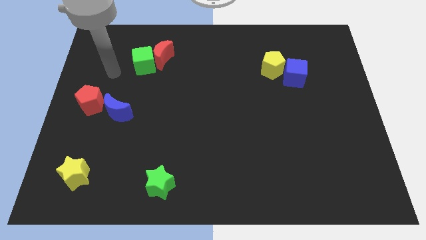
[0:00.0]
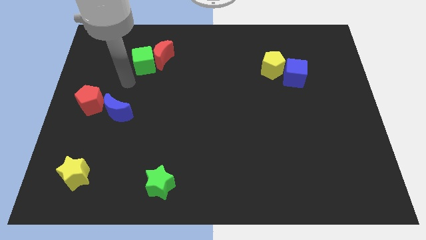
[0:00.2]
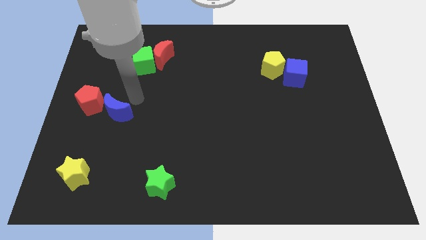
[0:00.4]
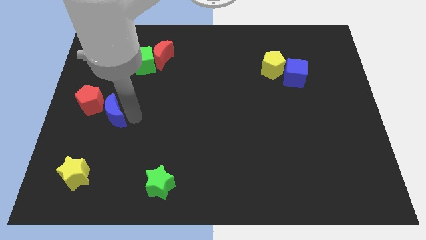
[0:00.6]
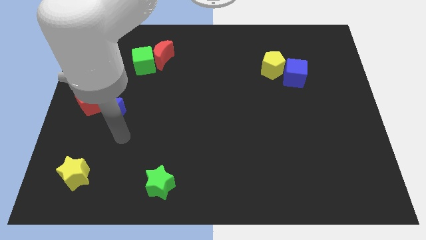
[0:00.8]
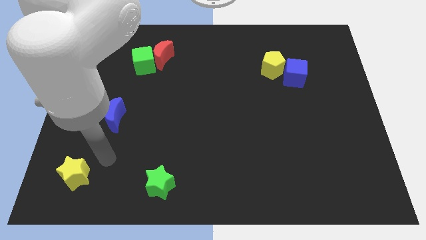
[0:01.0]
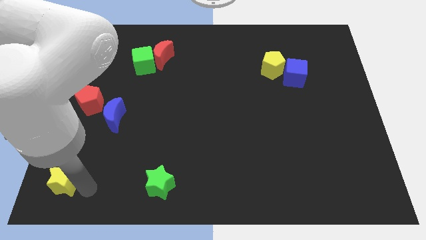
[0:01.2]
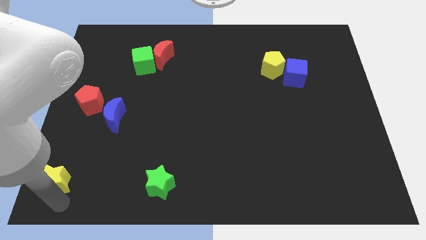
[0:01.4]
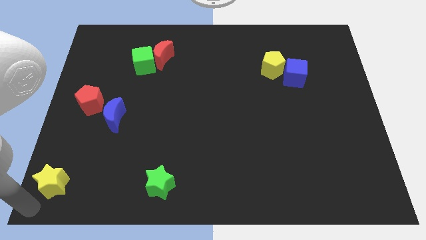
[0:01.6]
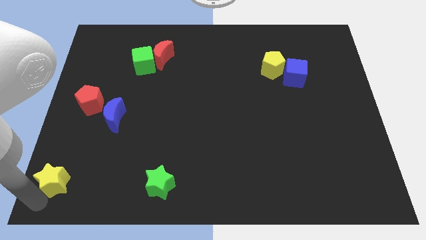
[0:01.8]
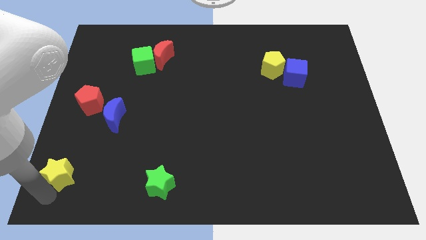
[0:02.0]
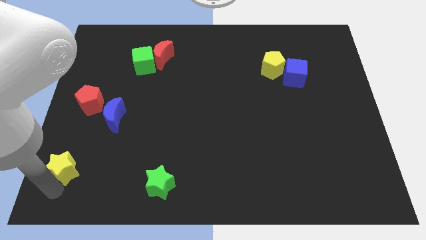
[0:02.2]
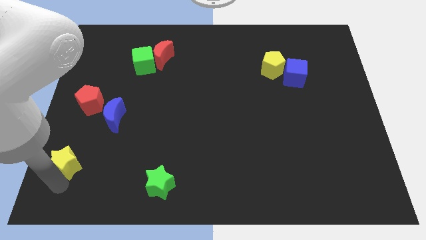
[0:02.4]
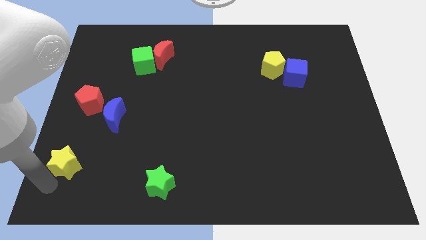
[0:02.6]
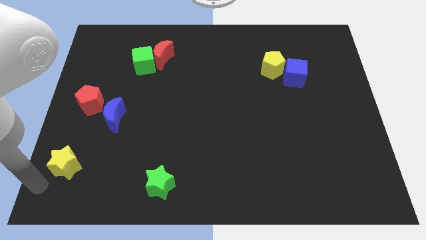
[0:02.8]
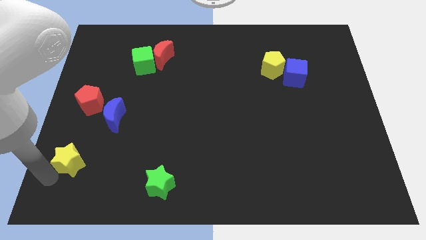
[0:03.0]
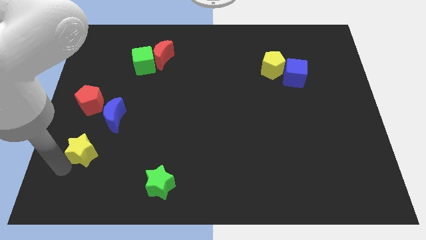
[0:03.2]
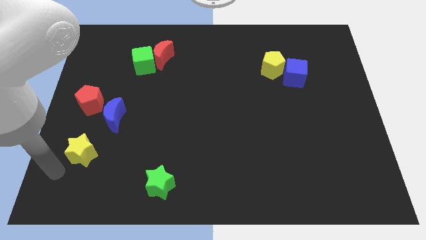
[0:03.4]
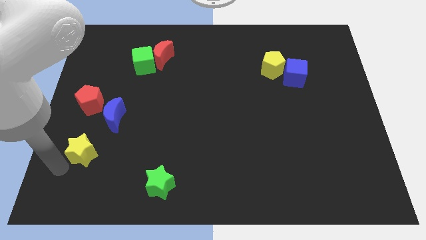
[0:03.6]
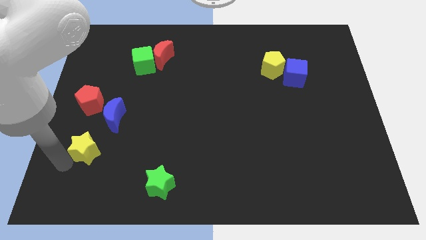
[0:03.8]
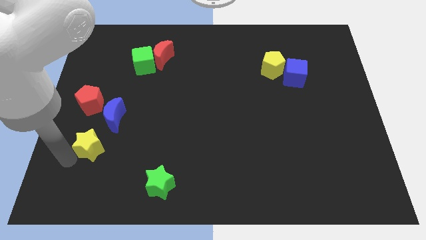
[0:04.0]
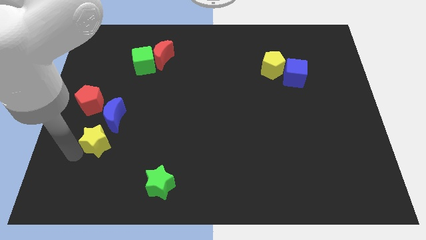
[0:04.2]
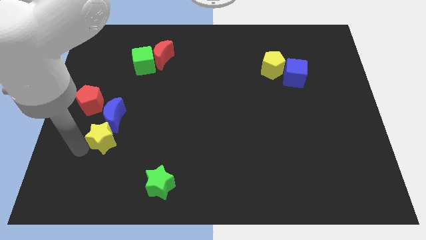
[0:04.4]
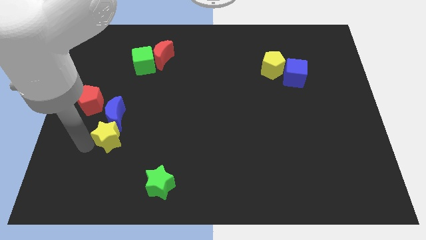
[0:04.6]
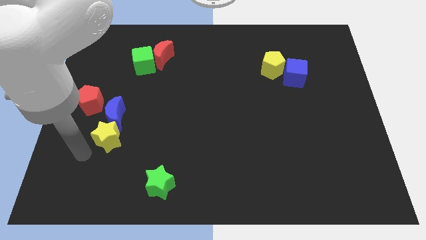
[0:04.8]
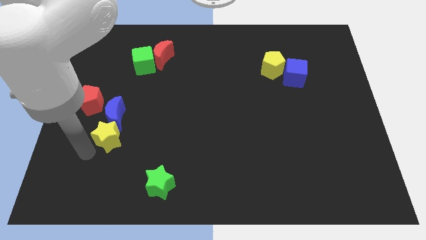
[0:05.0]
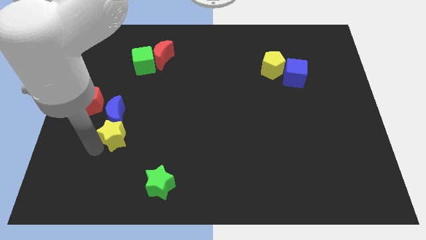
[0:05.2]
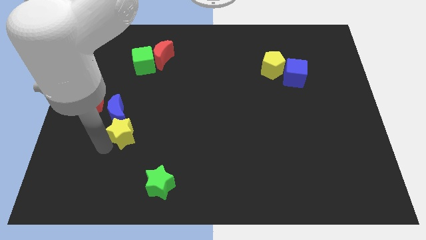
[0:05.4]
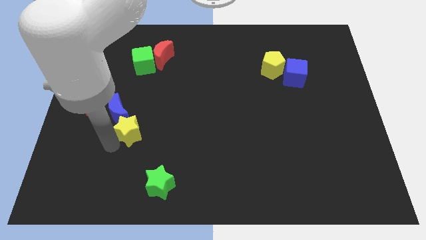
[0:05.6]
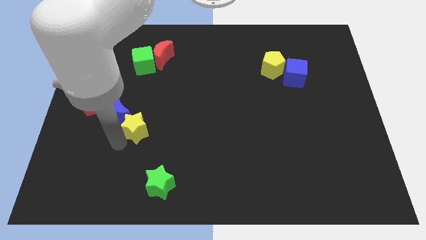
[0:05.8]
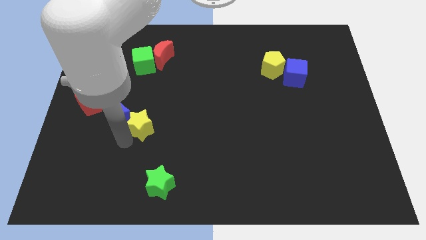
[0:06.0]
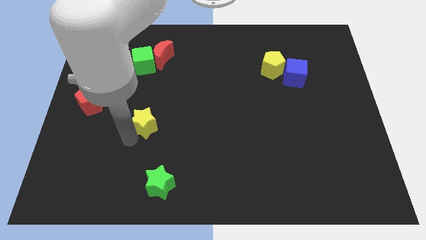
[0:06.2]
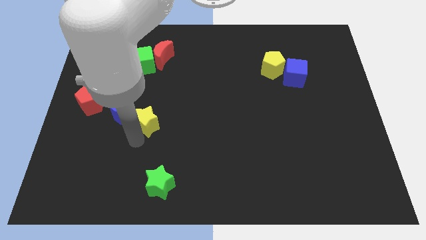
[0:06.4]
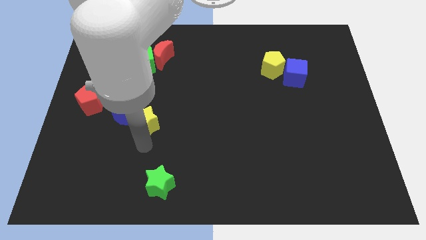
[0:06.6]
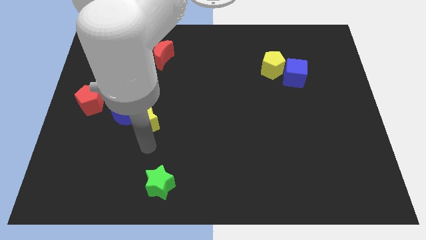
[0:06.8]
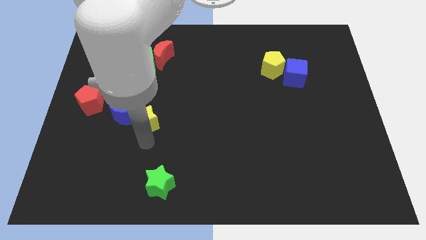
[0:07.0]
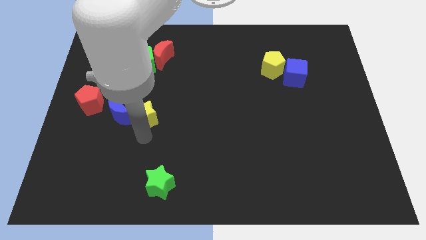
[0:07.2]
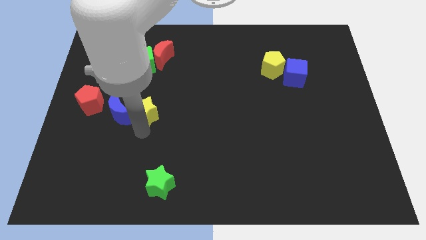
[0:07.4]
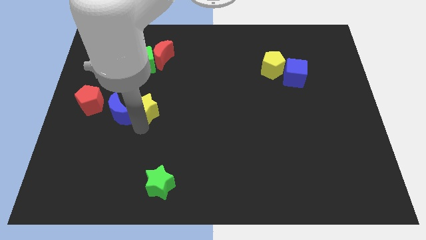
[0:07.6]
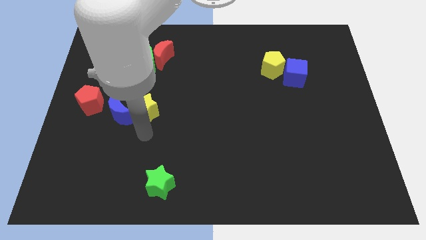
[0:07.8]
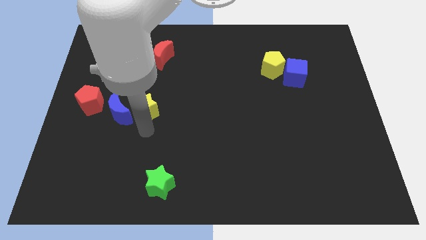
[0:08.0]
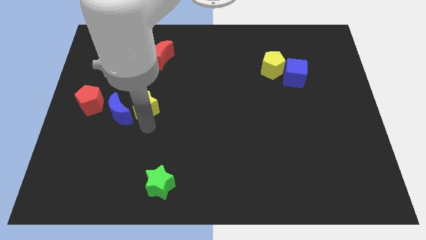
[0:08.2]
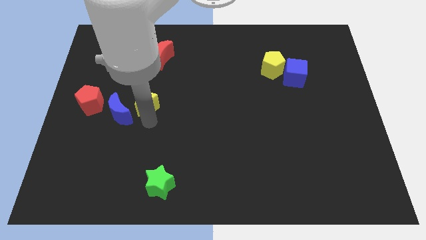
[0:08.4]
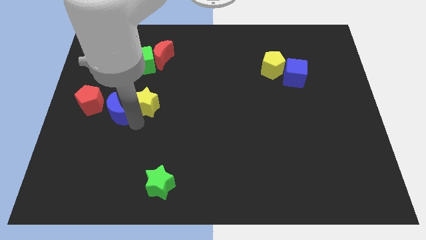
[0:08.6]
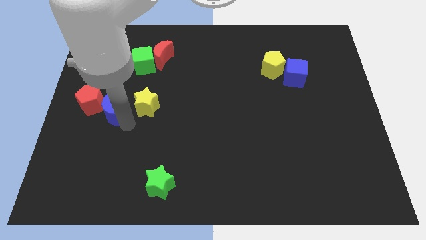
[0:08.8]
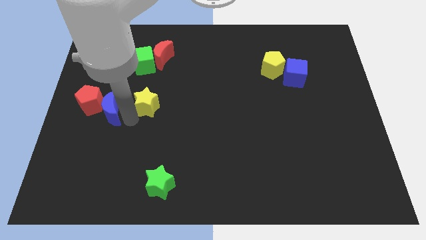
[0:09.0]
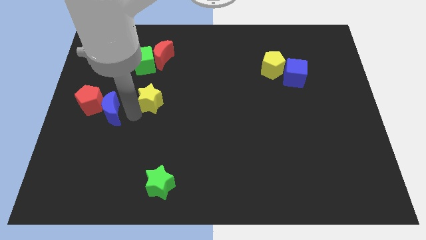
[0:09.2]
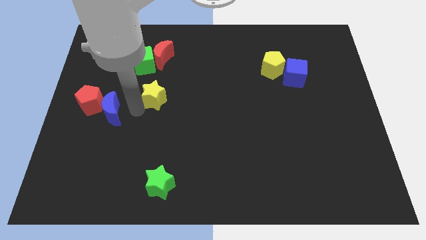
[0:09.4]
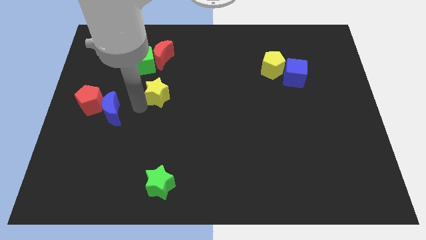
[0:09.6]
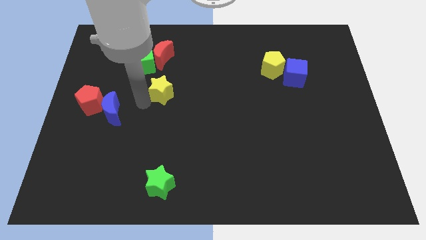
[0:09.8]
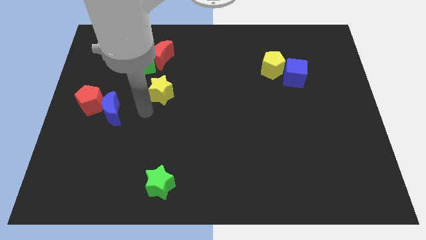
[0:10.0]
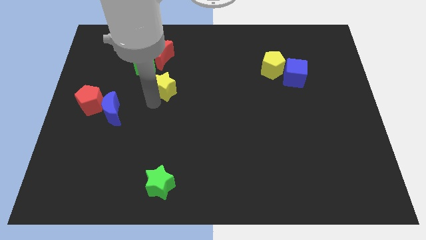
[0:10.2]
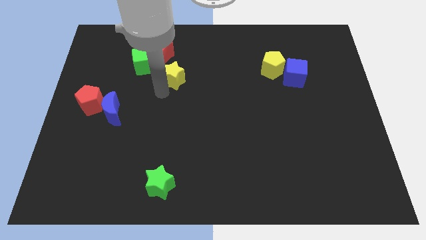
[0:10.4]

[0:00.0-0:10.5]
slide the yellow star right of the green cube

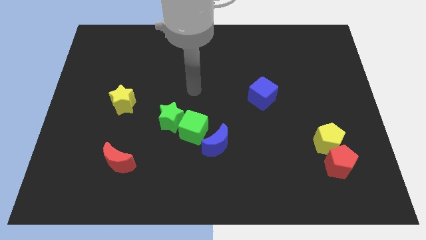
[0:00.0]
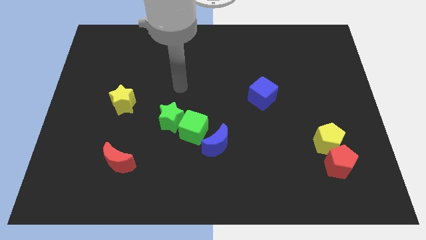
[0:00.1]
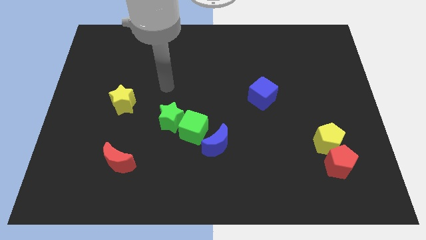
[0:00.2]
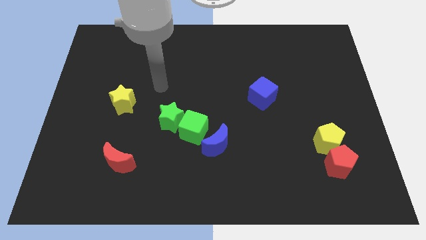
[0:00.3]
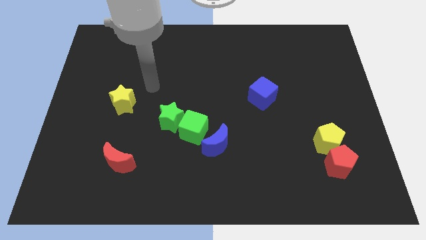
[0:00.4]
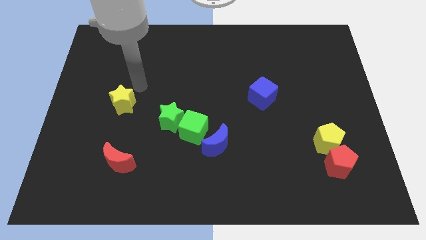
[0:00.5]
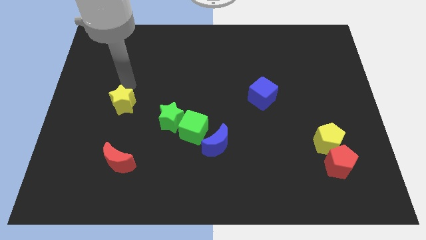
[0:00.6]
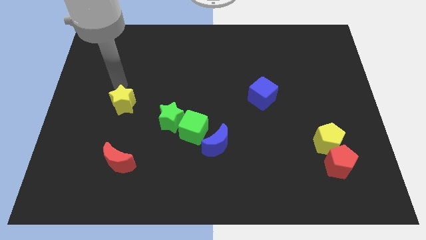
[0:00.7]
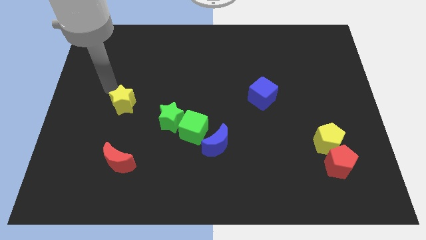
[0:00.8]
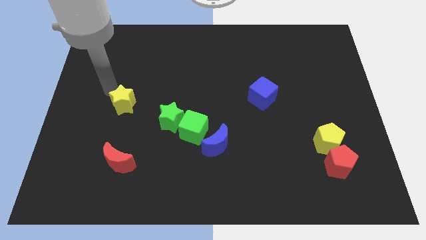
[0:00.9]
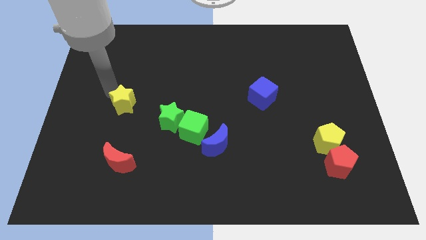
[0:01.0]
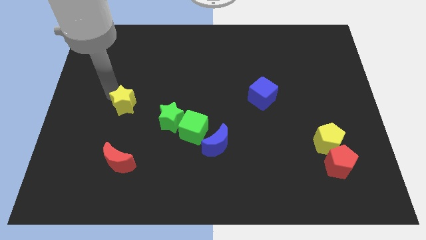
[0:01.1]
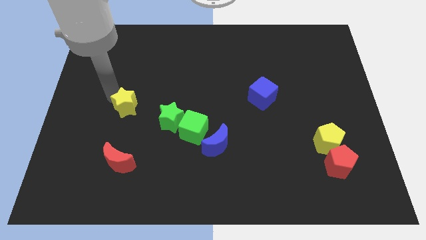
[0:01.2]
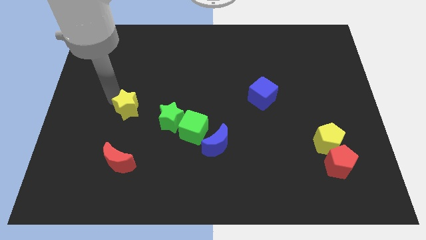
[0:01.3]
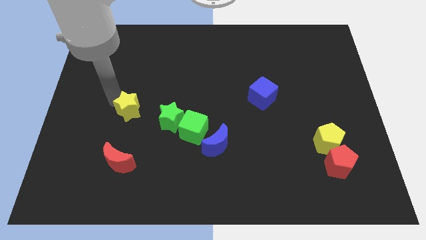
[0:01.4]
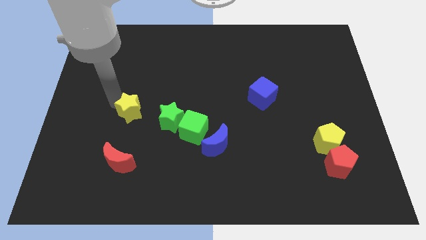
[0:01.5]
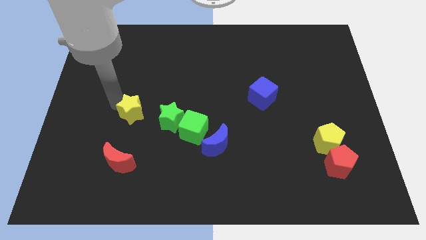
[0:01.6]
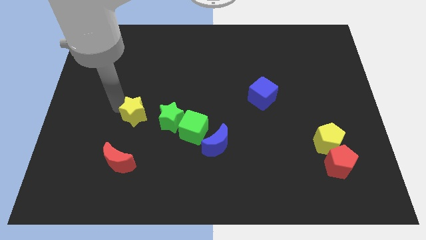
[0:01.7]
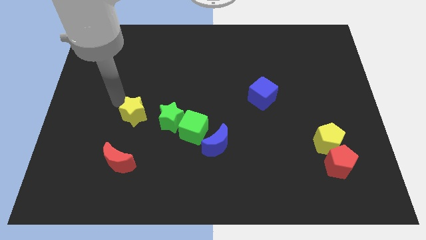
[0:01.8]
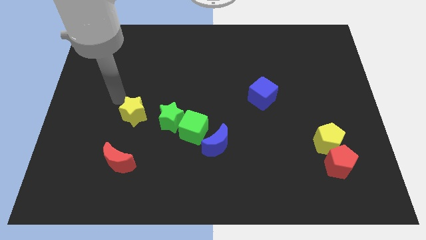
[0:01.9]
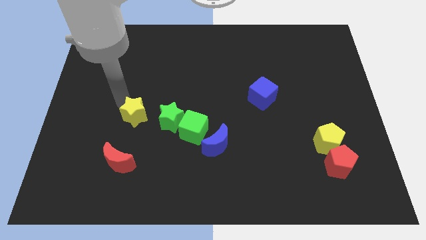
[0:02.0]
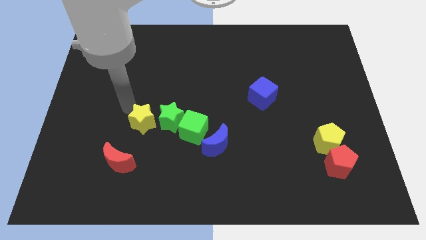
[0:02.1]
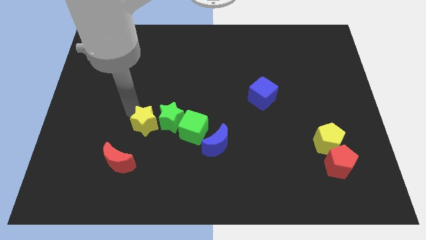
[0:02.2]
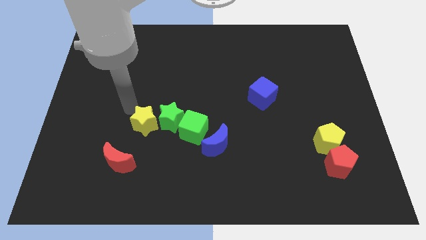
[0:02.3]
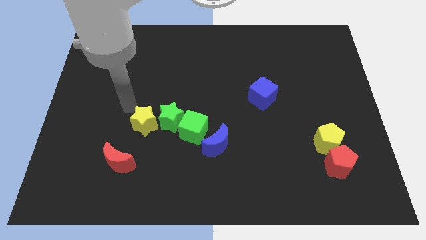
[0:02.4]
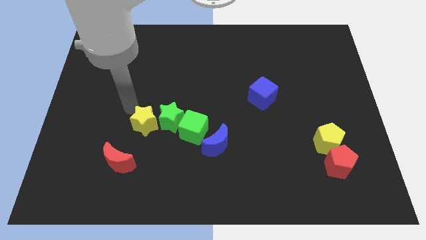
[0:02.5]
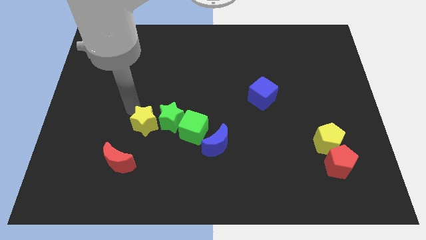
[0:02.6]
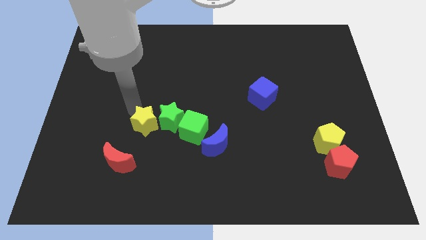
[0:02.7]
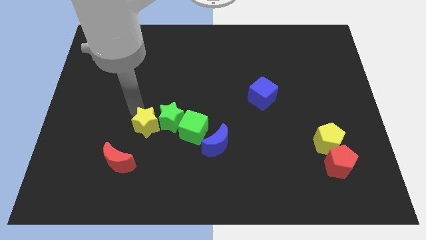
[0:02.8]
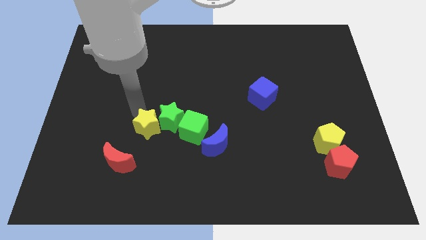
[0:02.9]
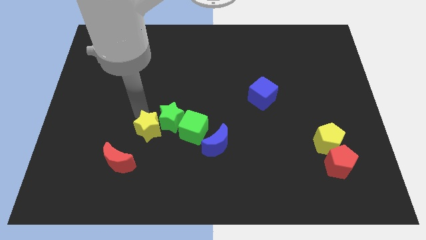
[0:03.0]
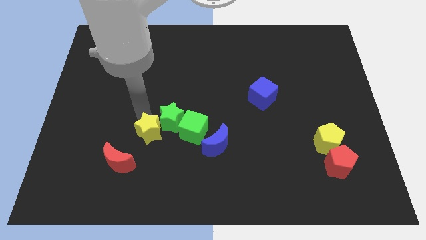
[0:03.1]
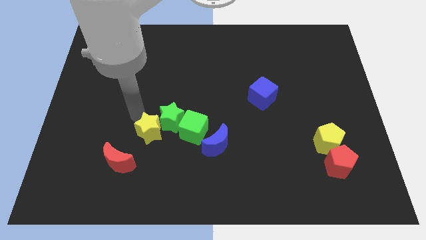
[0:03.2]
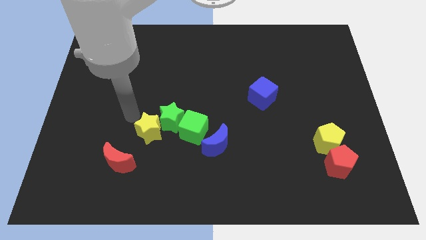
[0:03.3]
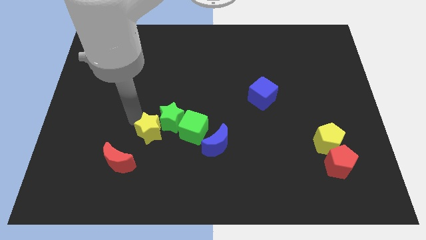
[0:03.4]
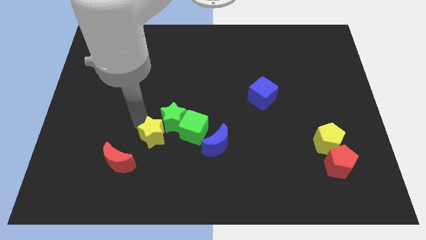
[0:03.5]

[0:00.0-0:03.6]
move the yellow star left of the blue moon
